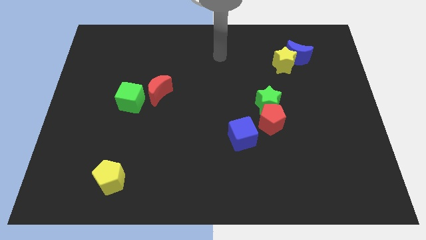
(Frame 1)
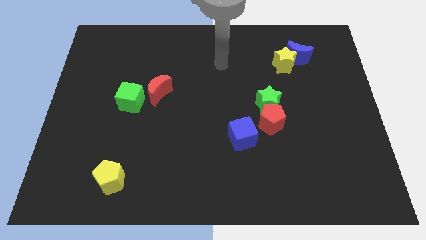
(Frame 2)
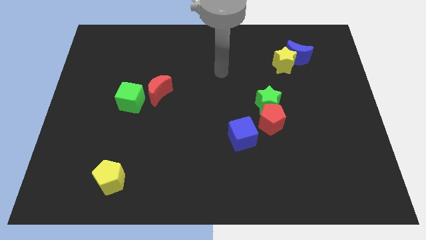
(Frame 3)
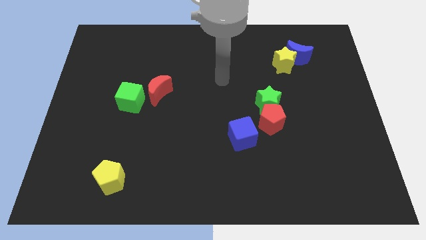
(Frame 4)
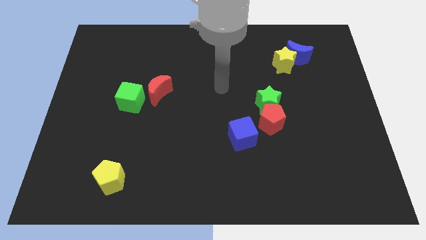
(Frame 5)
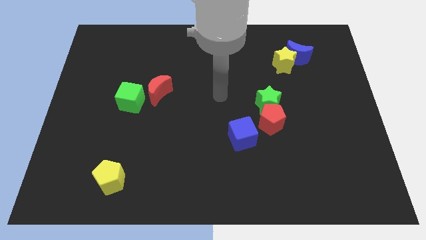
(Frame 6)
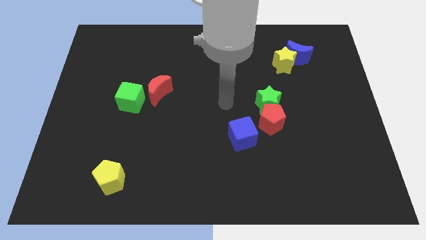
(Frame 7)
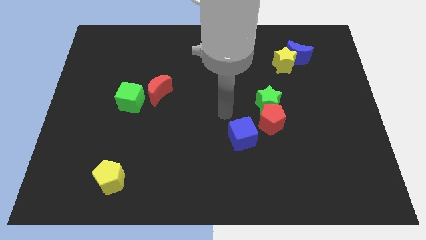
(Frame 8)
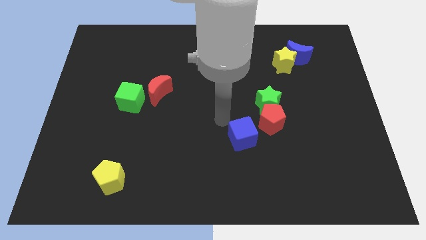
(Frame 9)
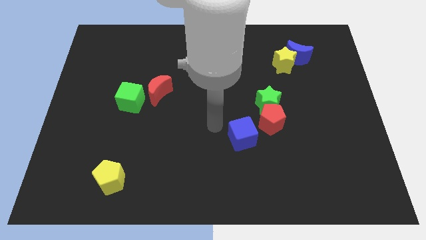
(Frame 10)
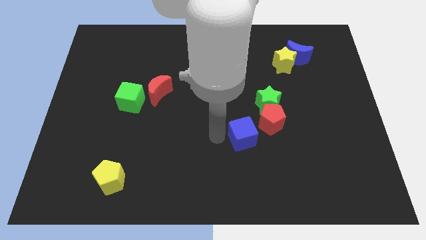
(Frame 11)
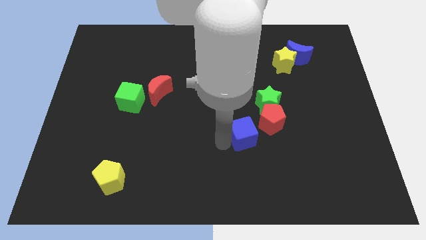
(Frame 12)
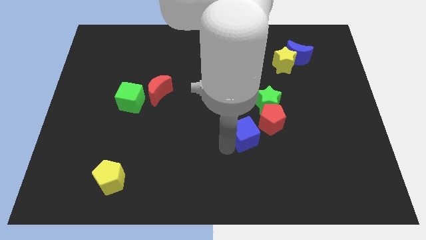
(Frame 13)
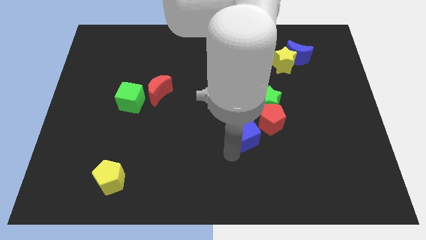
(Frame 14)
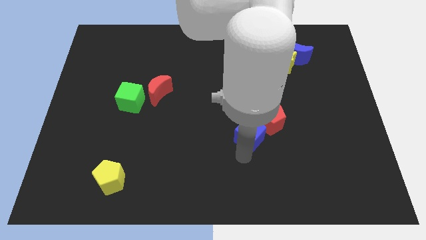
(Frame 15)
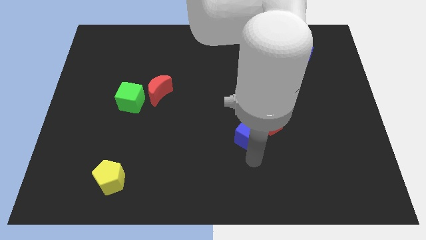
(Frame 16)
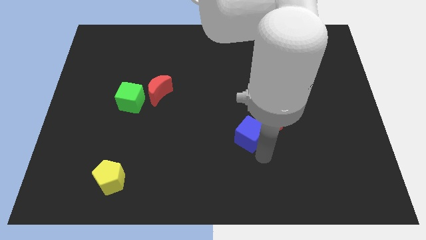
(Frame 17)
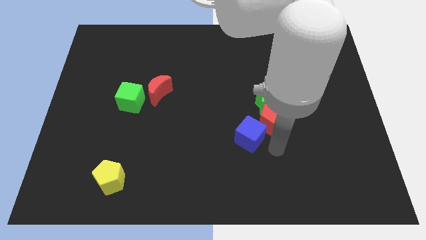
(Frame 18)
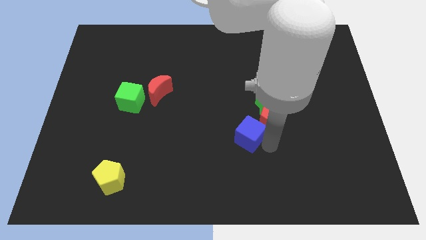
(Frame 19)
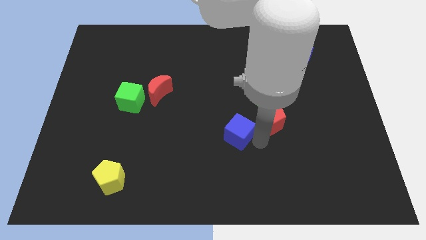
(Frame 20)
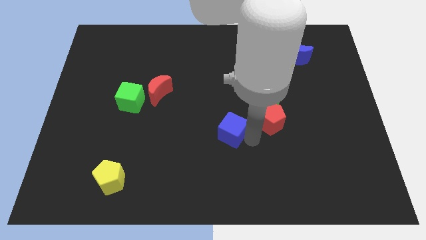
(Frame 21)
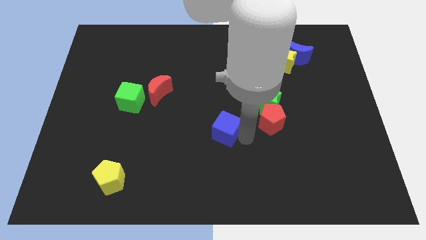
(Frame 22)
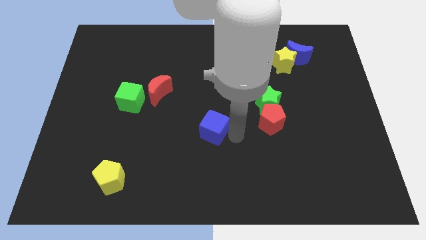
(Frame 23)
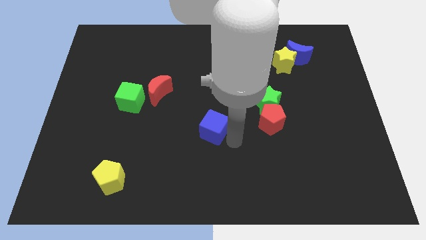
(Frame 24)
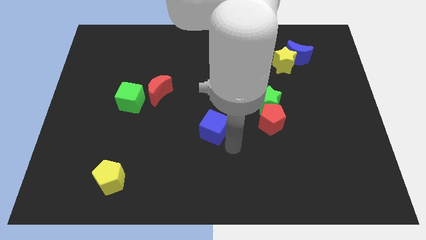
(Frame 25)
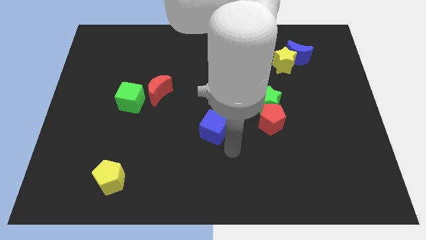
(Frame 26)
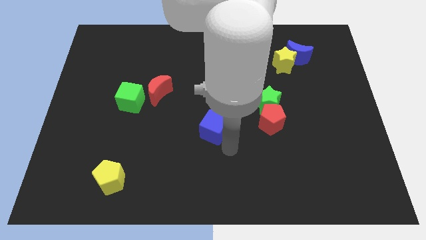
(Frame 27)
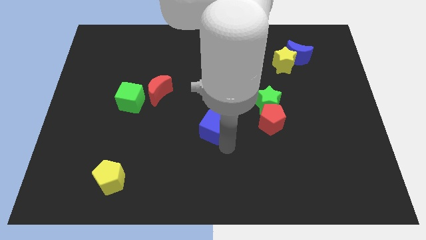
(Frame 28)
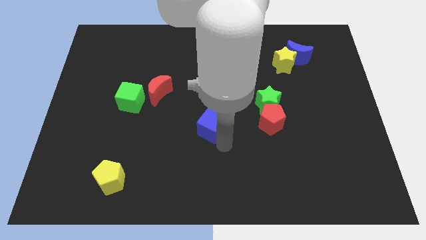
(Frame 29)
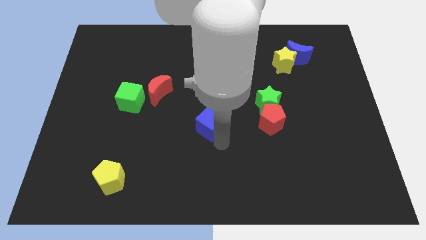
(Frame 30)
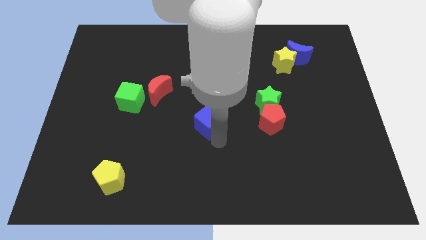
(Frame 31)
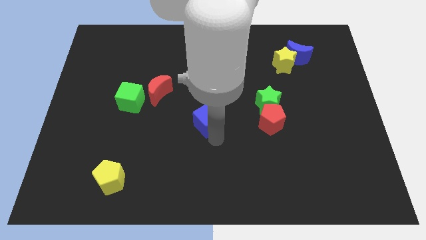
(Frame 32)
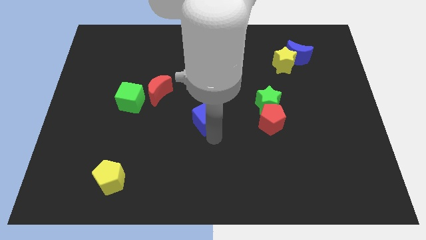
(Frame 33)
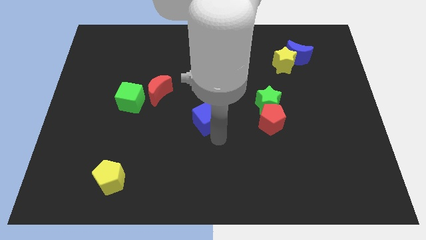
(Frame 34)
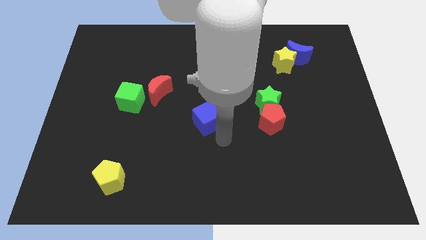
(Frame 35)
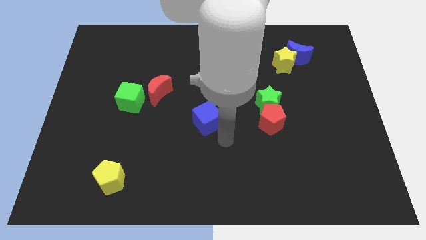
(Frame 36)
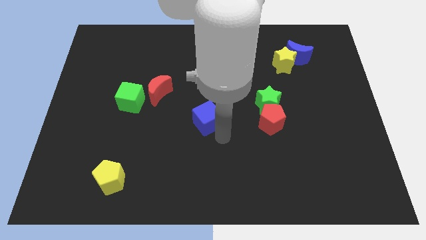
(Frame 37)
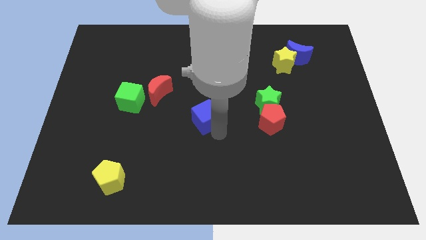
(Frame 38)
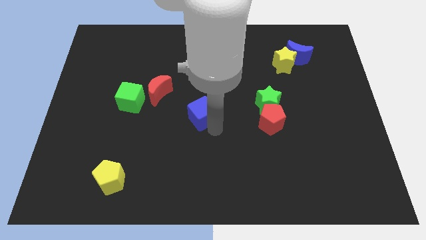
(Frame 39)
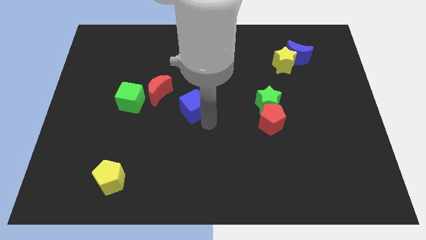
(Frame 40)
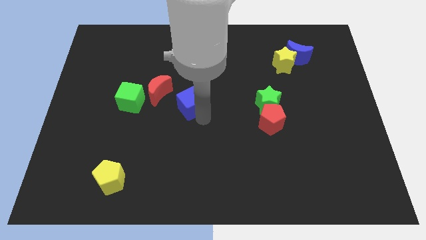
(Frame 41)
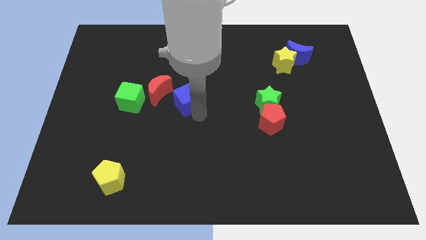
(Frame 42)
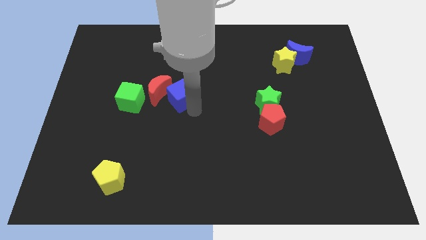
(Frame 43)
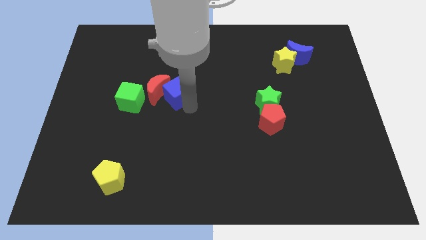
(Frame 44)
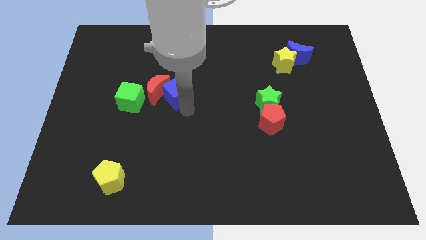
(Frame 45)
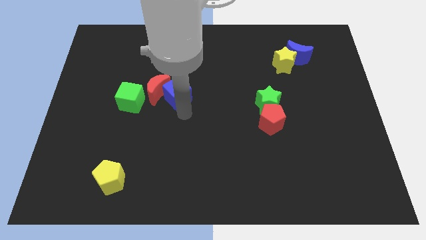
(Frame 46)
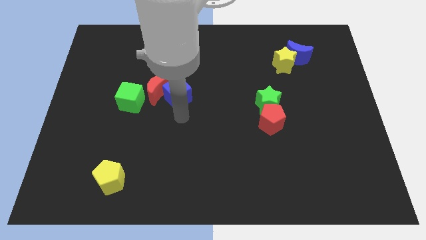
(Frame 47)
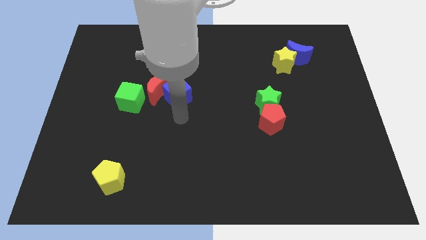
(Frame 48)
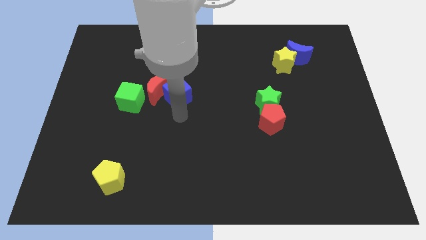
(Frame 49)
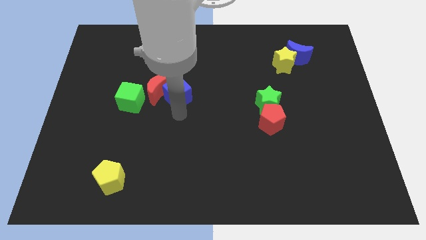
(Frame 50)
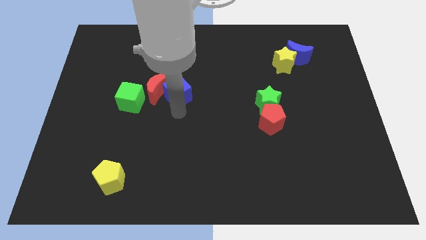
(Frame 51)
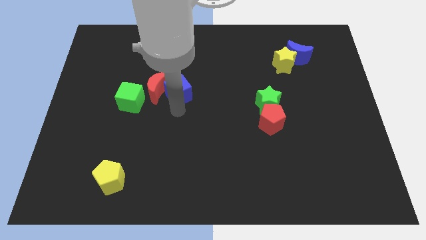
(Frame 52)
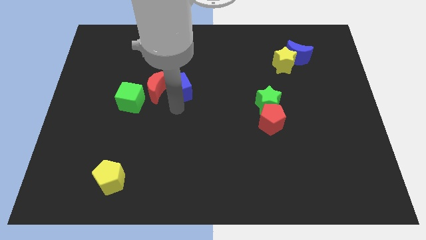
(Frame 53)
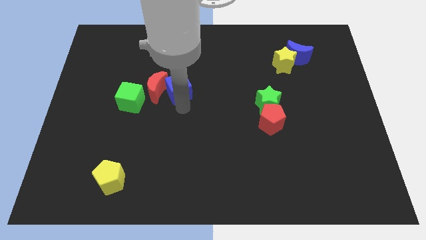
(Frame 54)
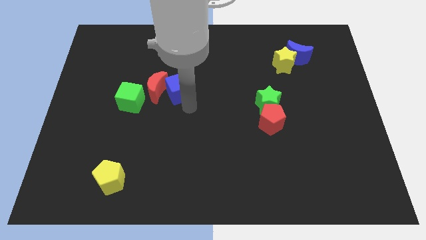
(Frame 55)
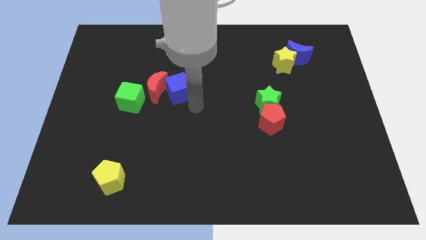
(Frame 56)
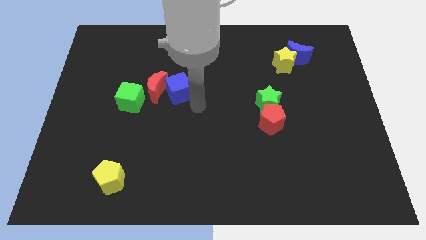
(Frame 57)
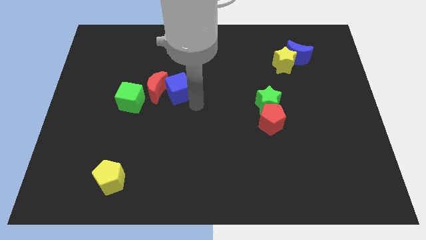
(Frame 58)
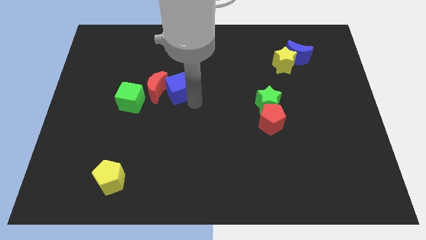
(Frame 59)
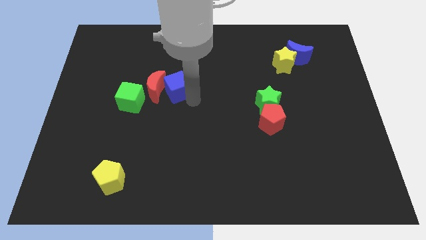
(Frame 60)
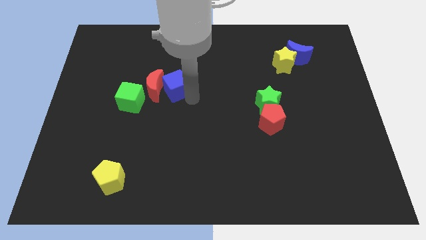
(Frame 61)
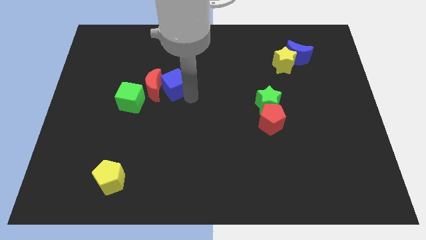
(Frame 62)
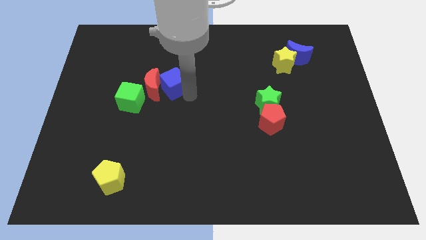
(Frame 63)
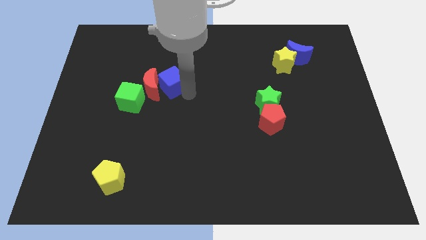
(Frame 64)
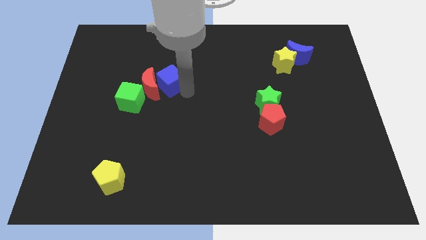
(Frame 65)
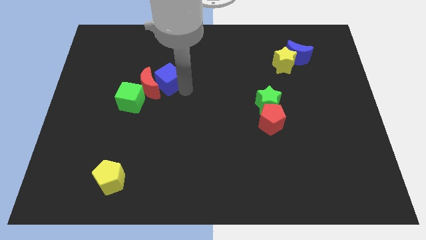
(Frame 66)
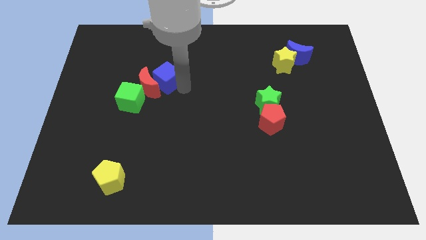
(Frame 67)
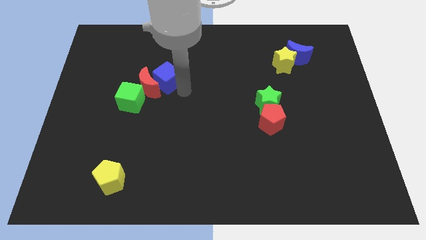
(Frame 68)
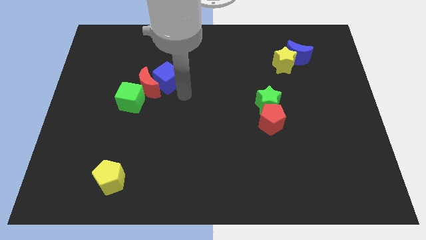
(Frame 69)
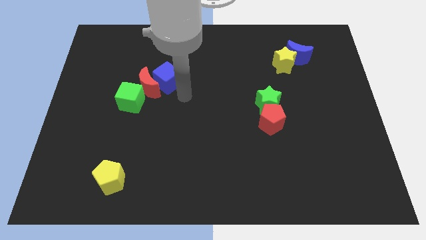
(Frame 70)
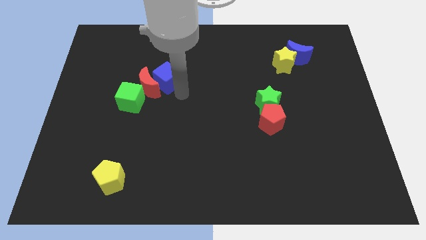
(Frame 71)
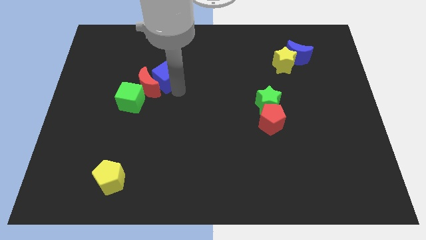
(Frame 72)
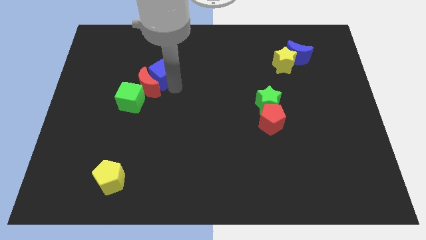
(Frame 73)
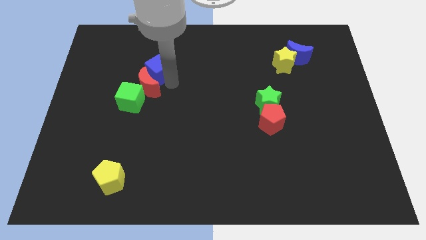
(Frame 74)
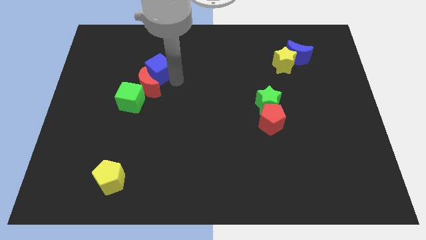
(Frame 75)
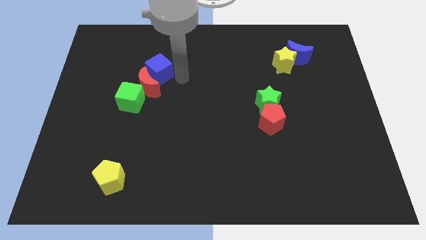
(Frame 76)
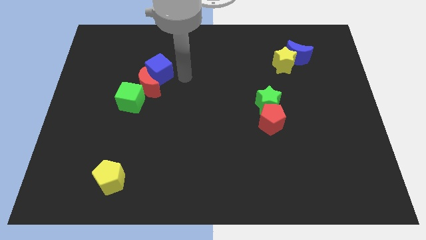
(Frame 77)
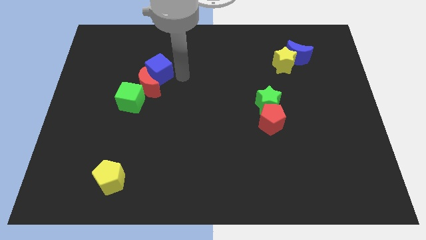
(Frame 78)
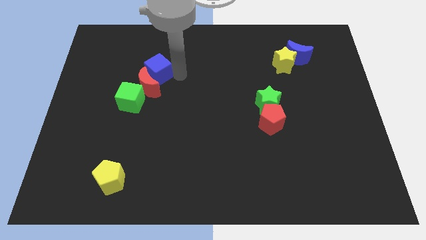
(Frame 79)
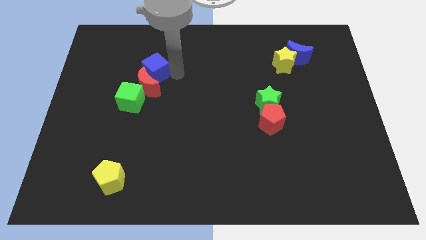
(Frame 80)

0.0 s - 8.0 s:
push the blue cube to the top of the green cube
